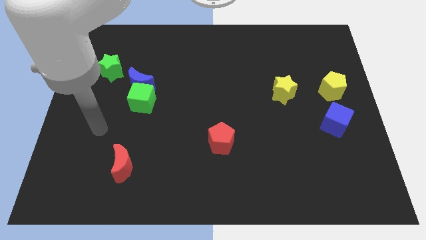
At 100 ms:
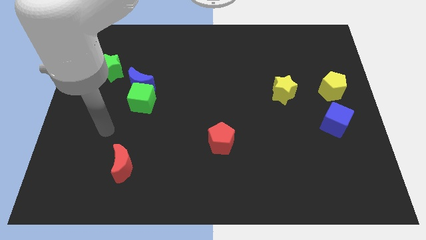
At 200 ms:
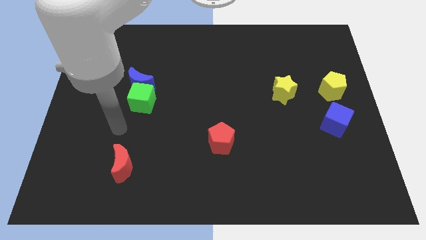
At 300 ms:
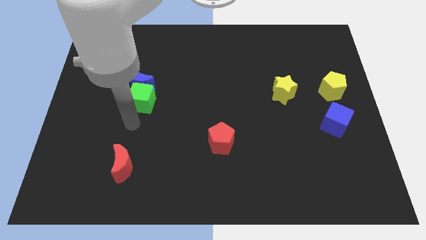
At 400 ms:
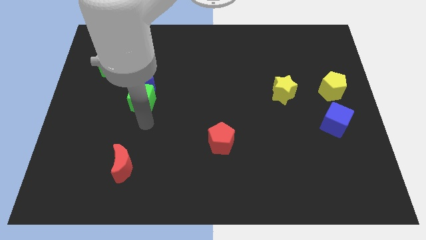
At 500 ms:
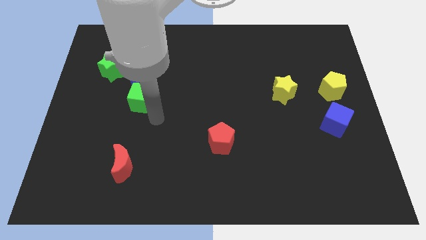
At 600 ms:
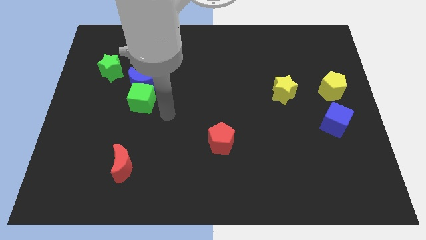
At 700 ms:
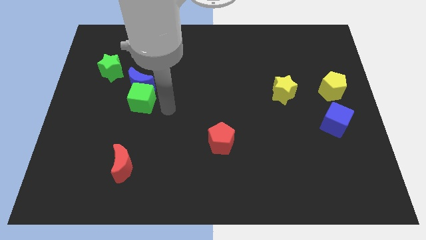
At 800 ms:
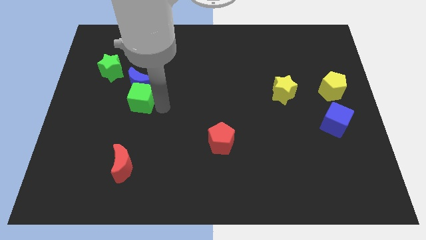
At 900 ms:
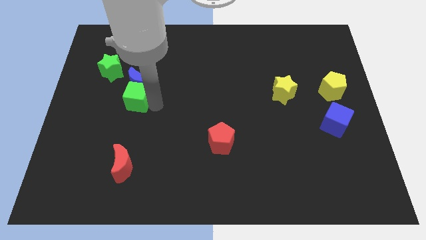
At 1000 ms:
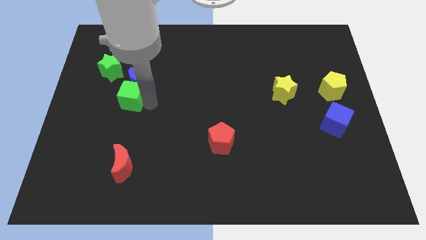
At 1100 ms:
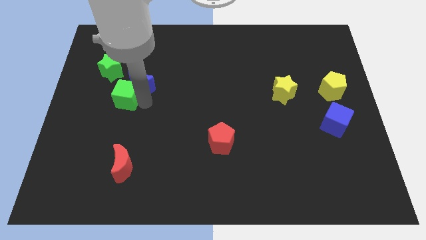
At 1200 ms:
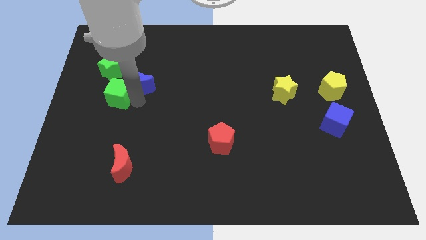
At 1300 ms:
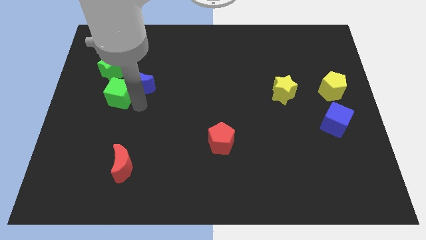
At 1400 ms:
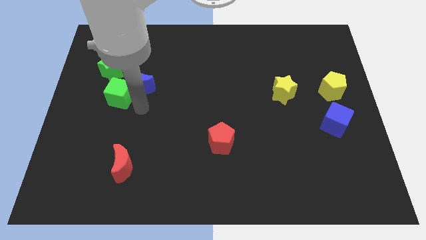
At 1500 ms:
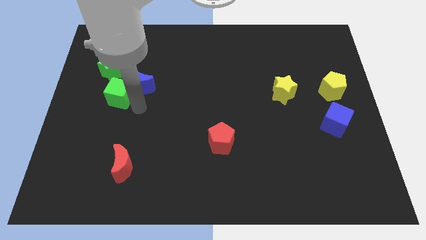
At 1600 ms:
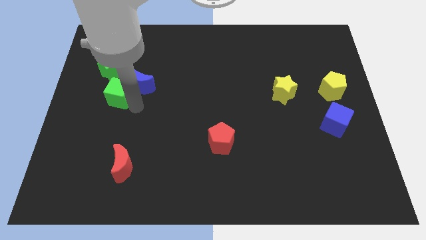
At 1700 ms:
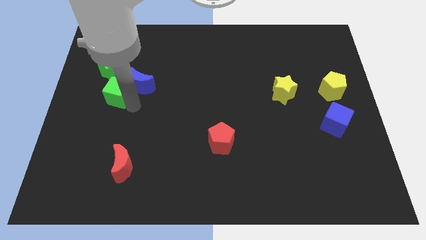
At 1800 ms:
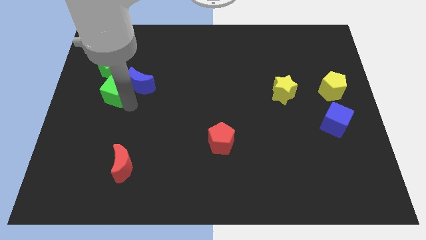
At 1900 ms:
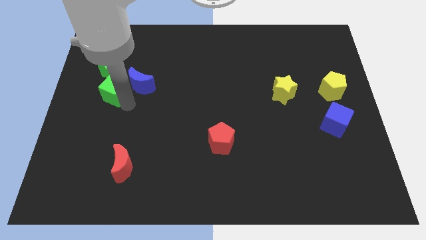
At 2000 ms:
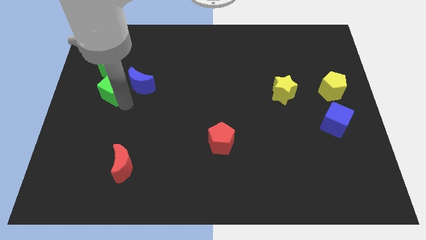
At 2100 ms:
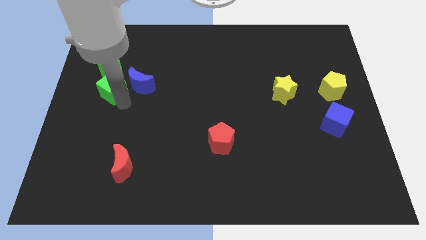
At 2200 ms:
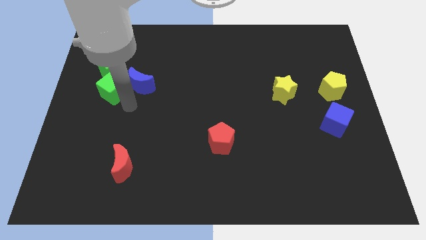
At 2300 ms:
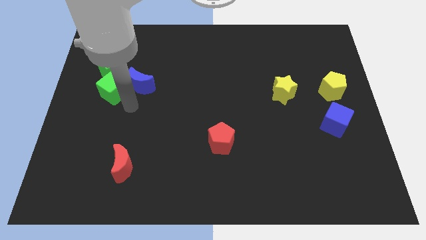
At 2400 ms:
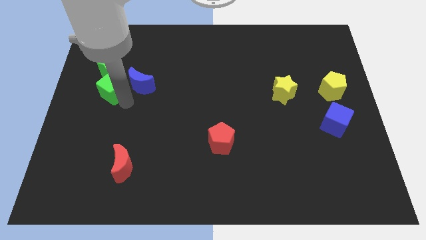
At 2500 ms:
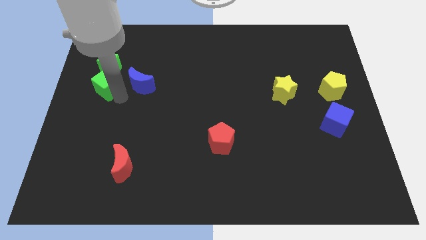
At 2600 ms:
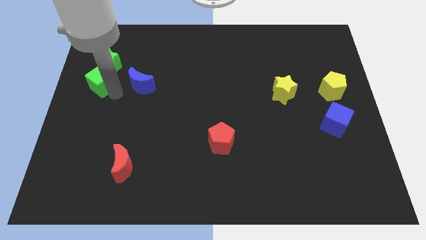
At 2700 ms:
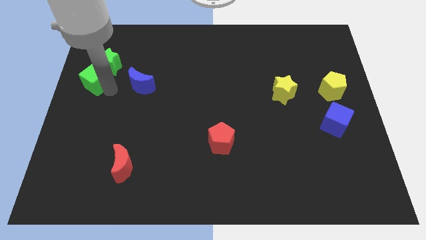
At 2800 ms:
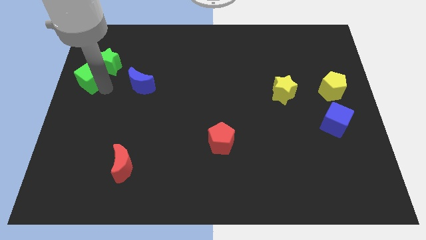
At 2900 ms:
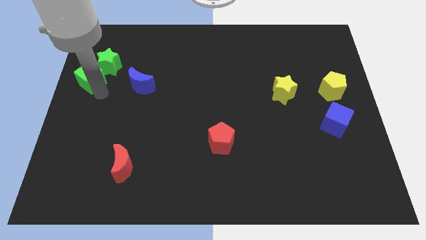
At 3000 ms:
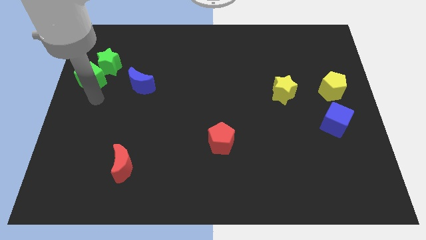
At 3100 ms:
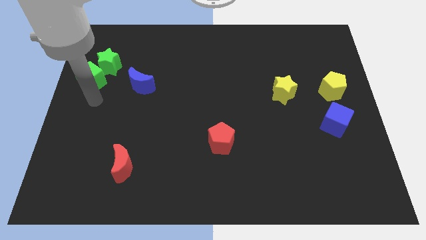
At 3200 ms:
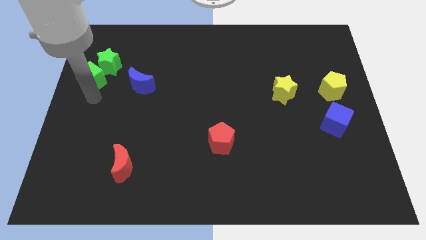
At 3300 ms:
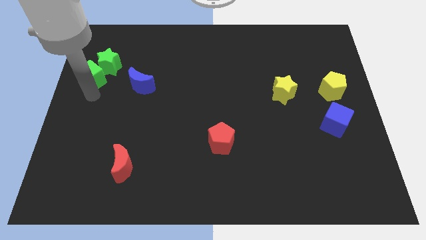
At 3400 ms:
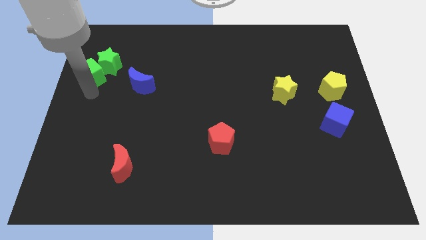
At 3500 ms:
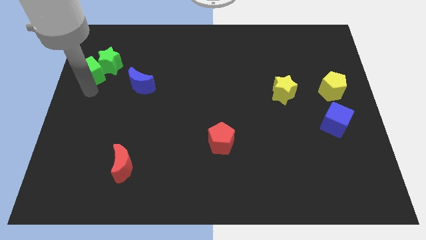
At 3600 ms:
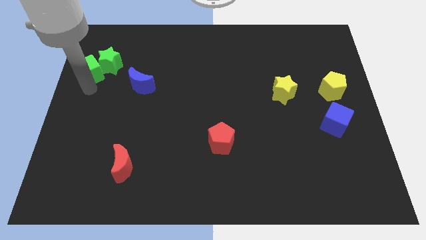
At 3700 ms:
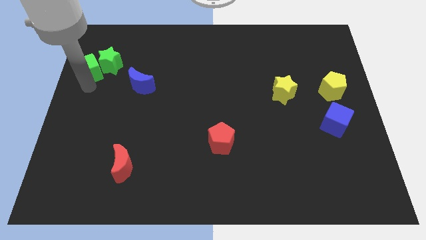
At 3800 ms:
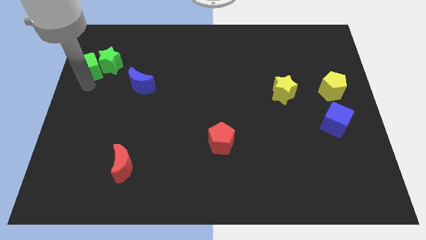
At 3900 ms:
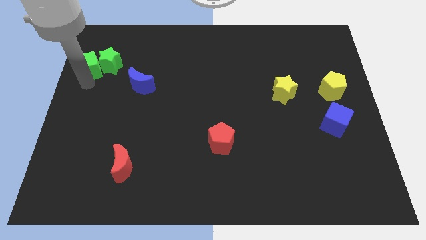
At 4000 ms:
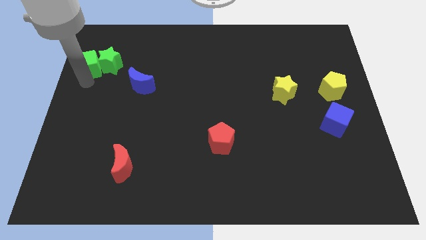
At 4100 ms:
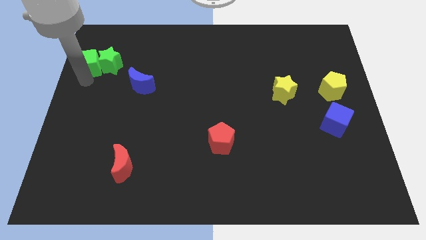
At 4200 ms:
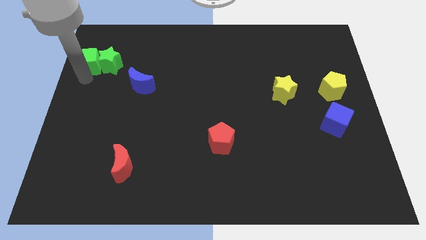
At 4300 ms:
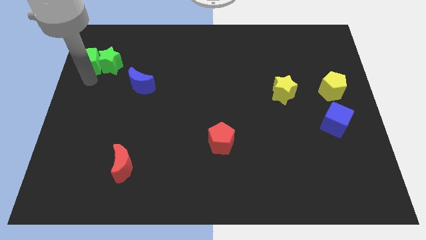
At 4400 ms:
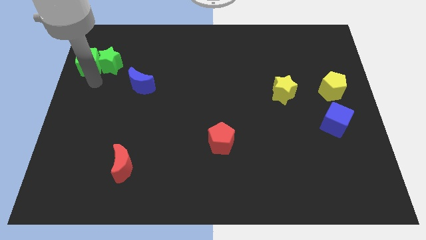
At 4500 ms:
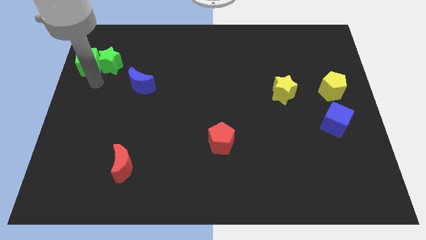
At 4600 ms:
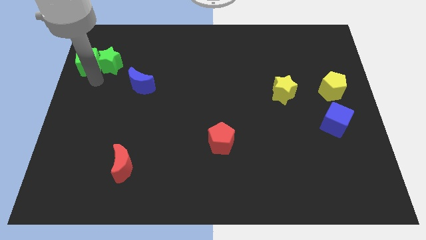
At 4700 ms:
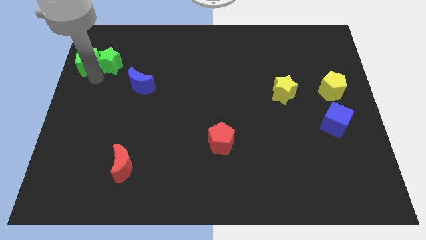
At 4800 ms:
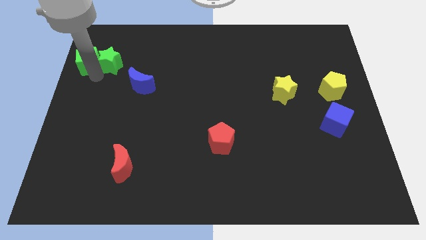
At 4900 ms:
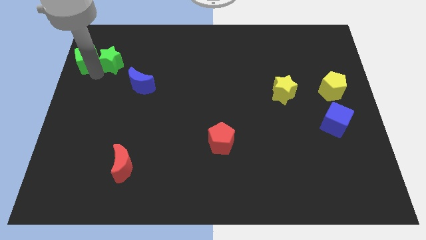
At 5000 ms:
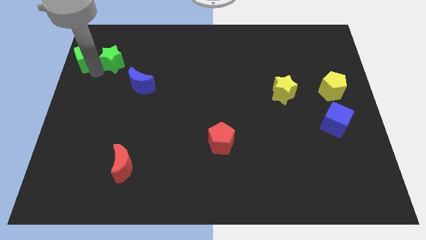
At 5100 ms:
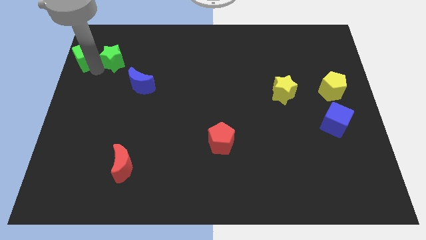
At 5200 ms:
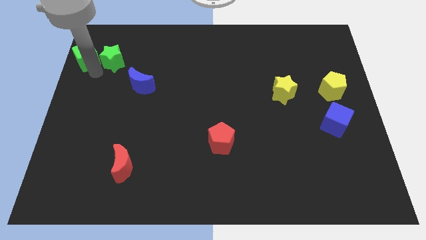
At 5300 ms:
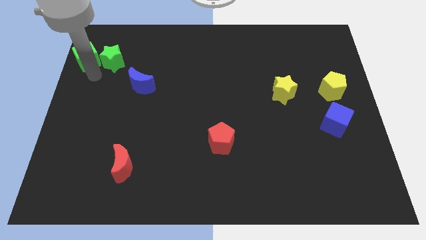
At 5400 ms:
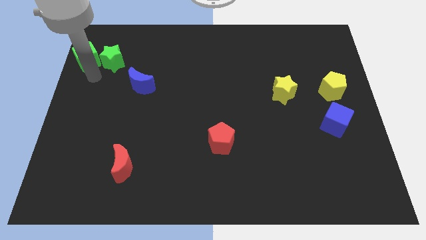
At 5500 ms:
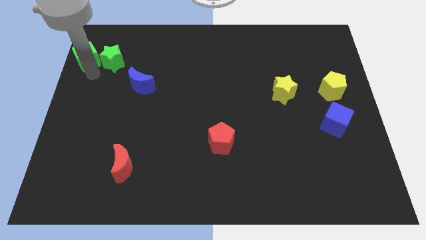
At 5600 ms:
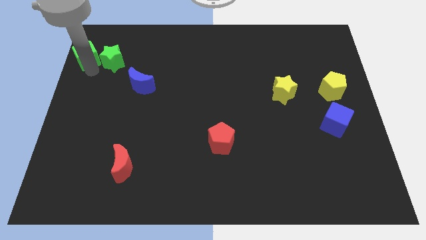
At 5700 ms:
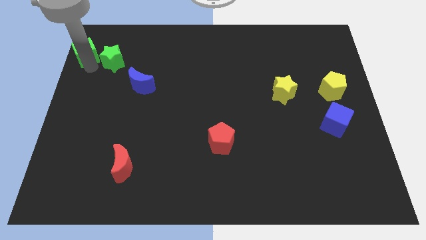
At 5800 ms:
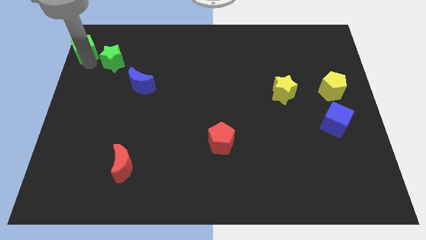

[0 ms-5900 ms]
push the green cube to the top left corner
